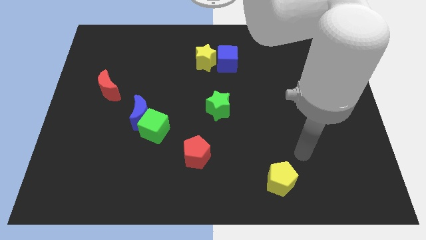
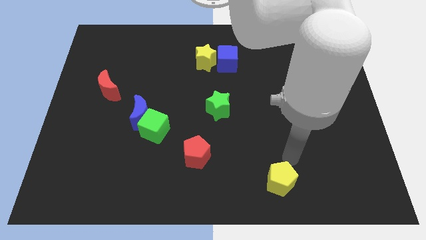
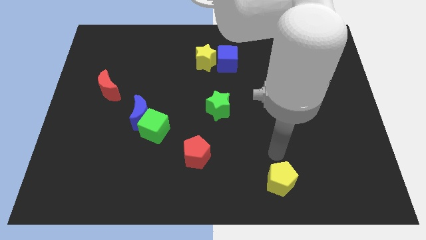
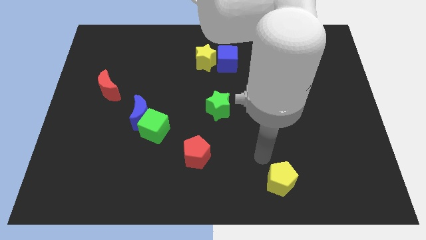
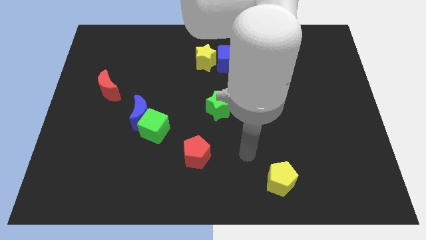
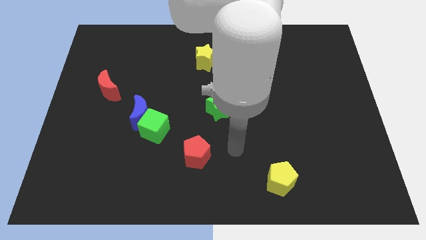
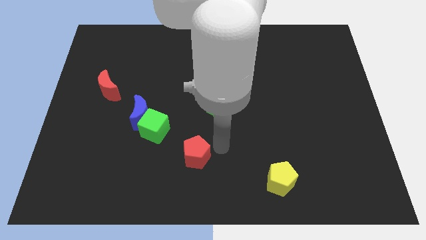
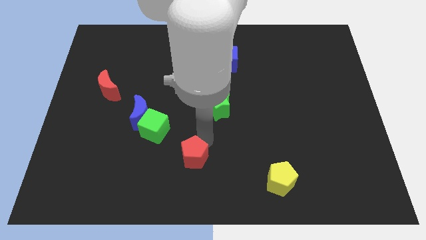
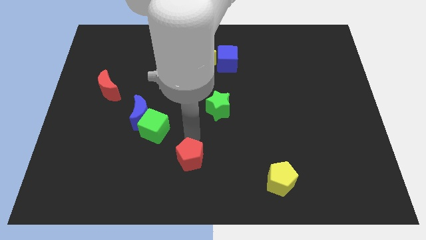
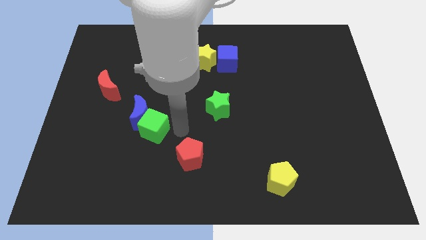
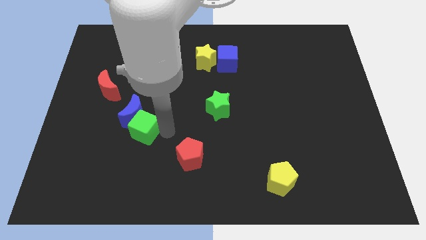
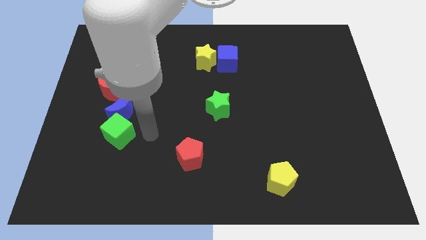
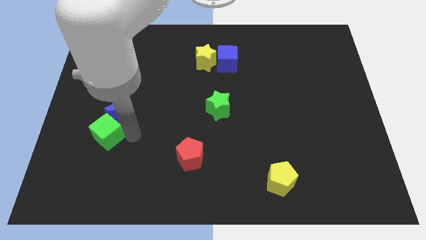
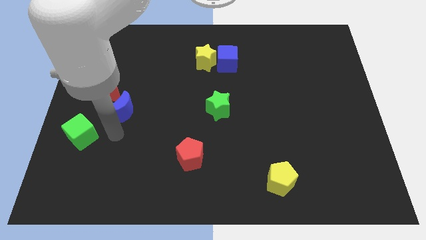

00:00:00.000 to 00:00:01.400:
move the blue moon away from the green cube

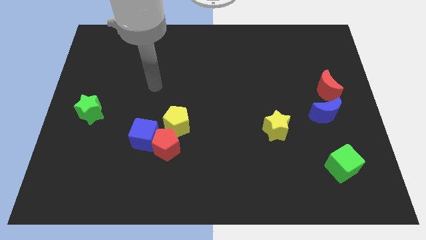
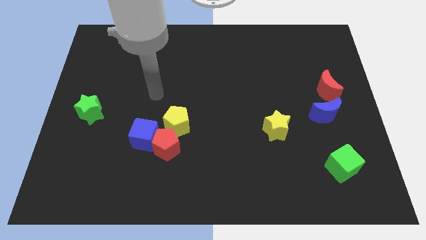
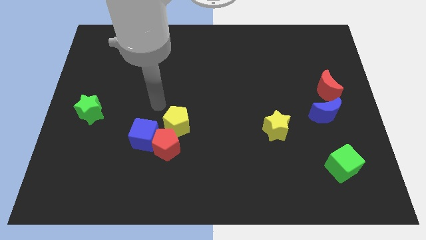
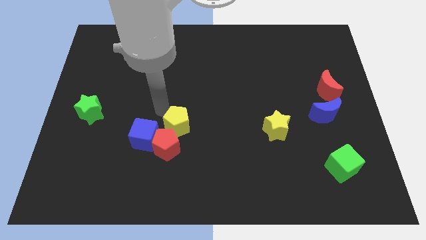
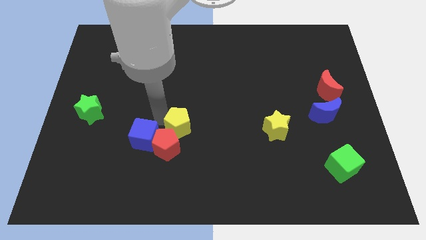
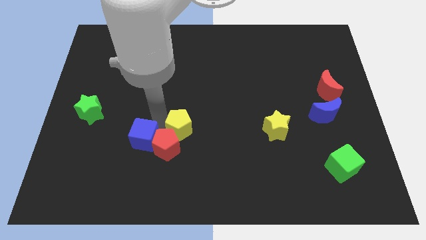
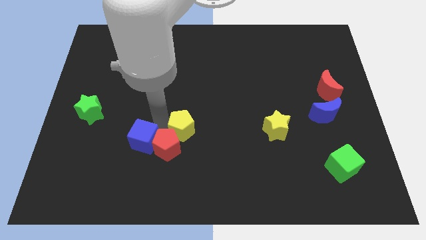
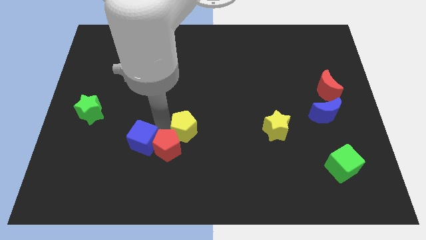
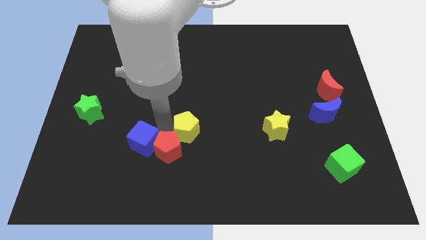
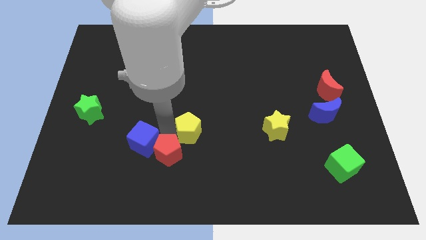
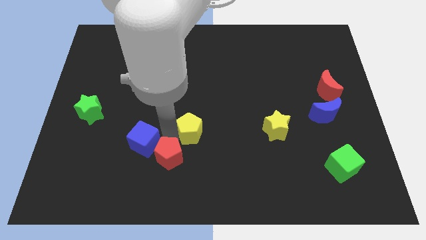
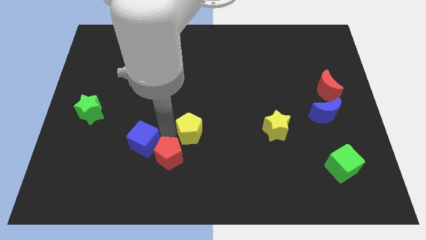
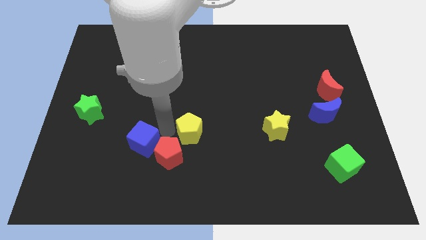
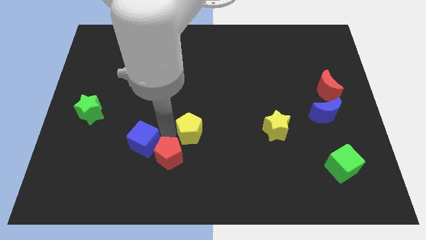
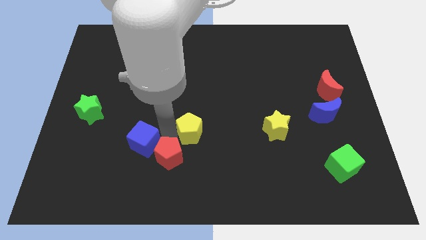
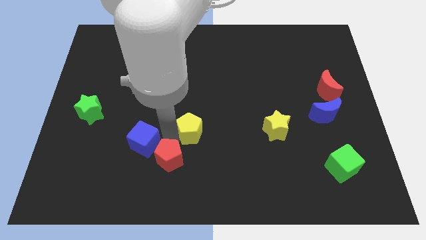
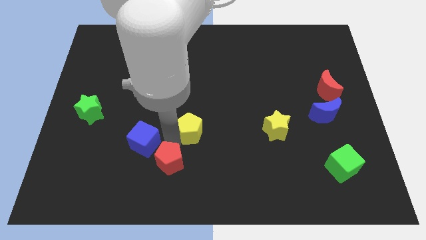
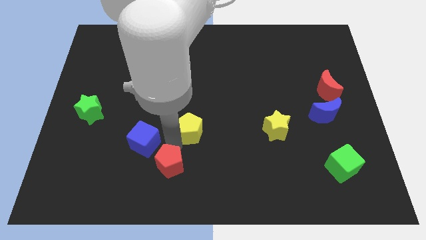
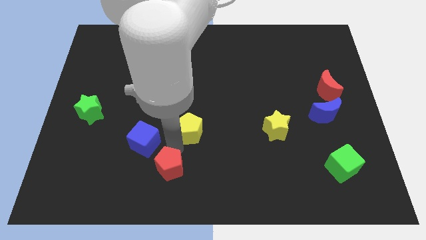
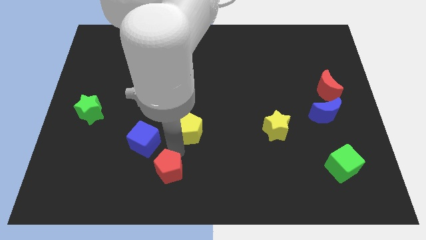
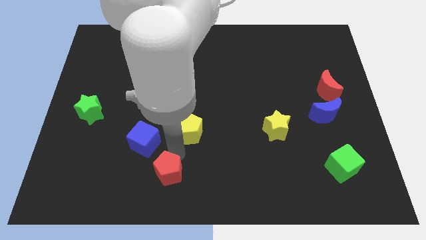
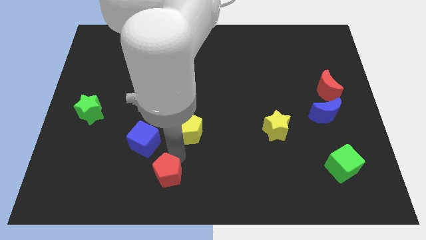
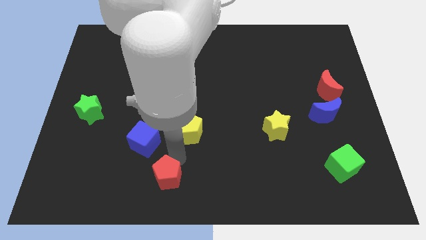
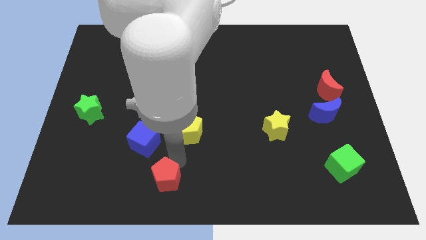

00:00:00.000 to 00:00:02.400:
separate the red pentagon from the blue cube and yellow pentagon

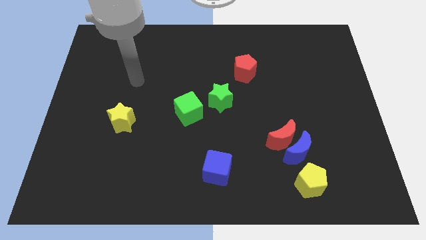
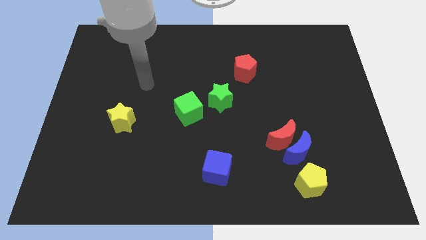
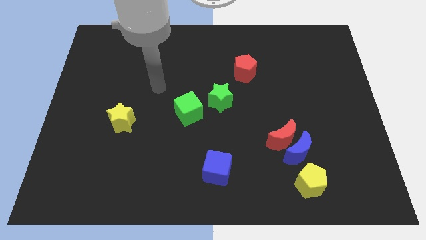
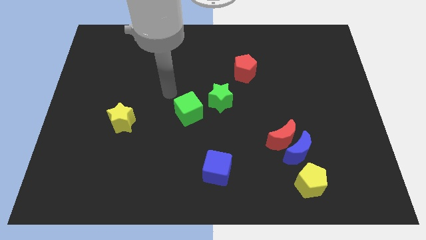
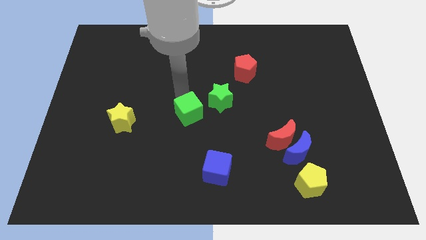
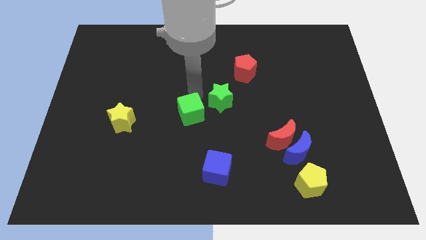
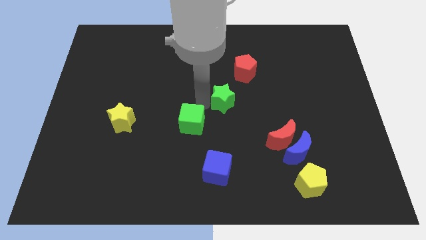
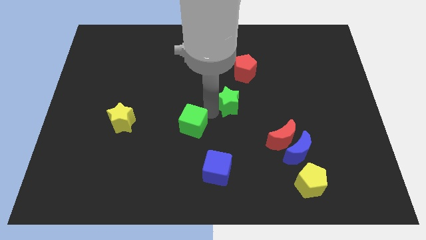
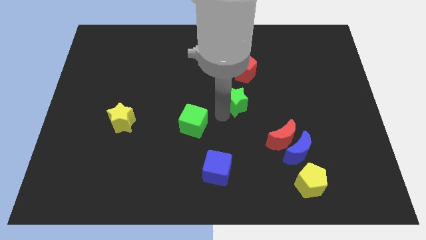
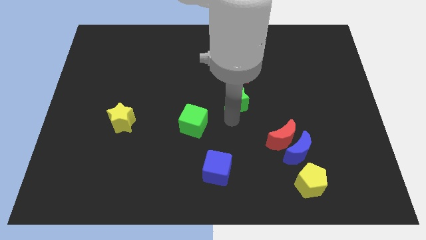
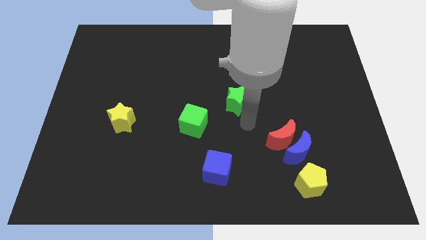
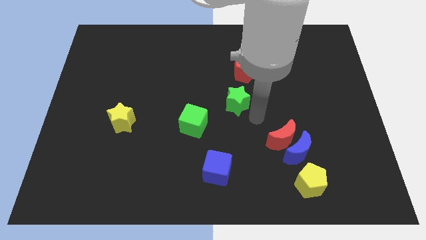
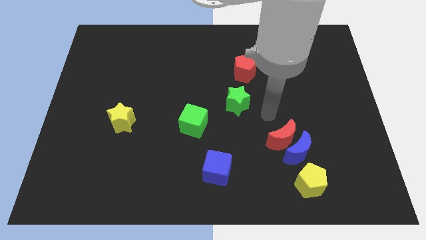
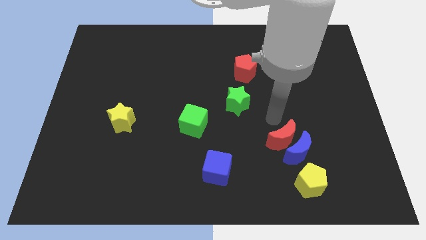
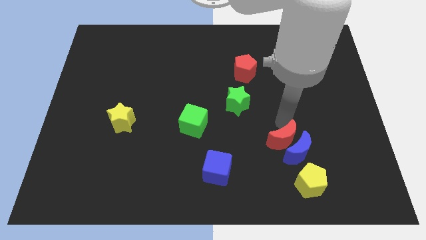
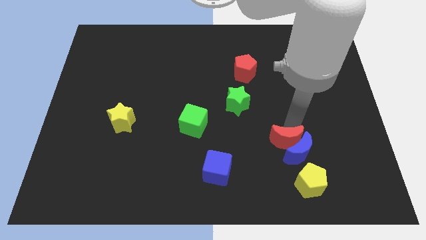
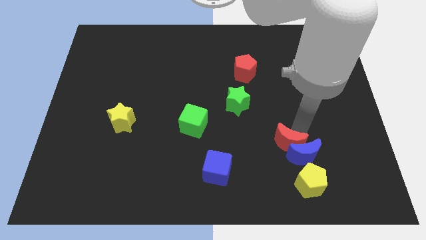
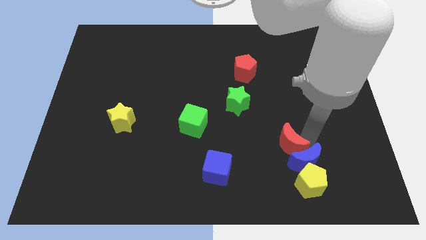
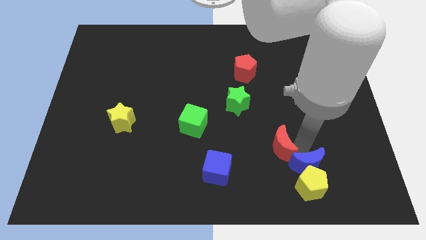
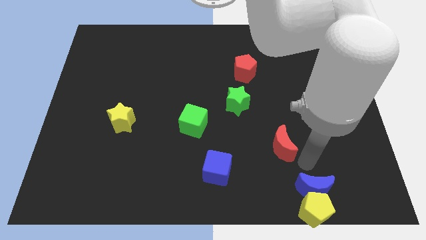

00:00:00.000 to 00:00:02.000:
separate the red moon from the blue moon

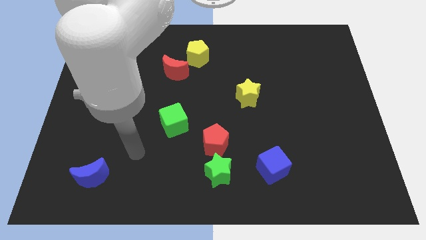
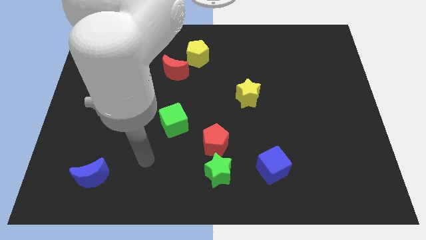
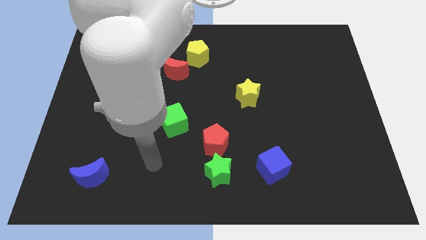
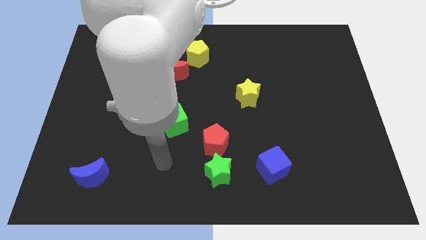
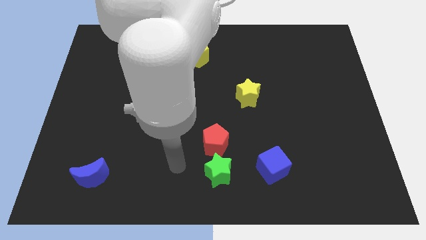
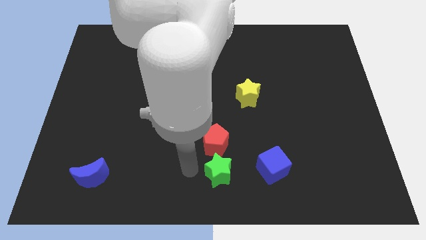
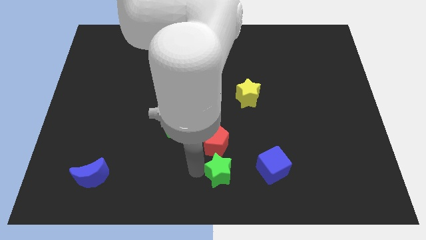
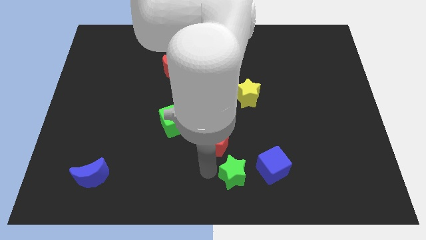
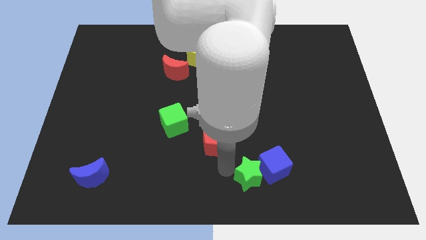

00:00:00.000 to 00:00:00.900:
move the red pentagon away from the green star

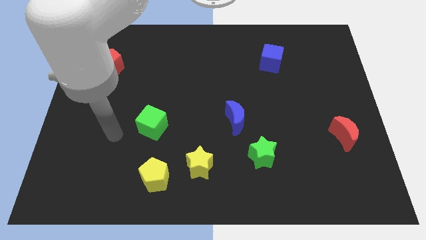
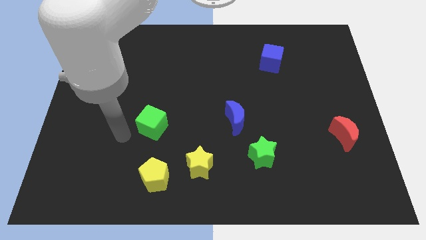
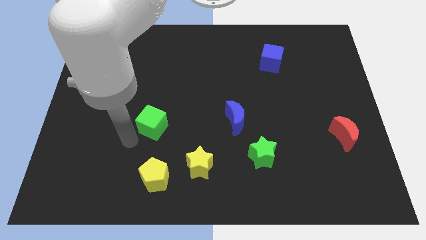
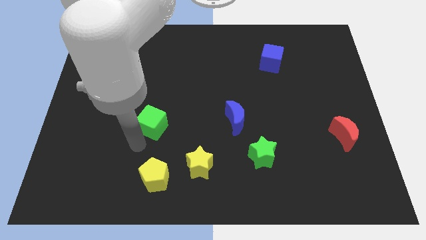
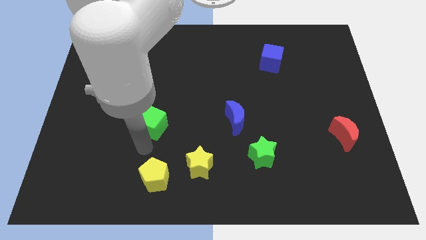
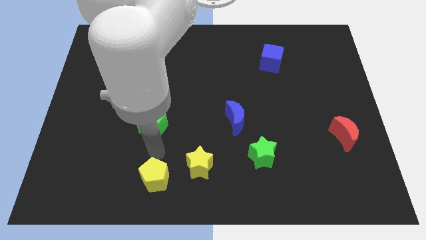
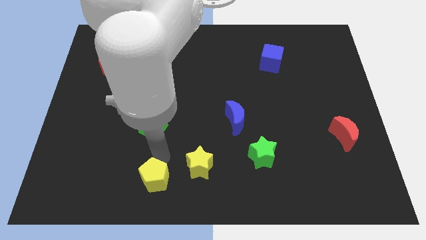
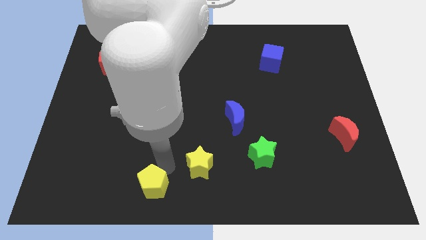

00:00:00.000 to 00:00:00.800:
move the yellow star away from the yellow pentagon

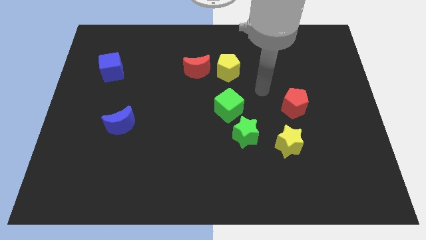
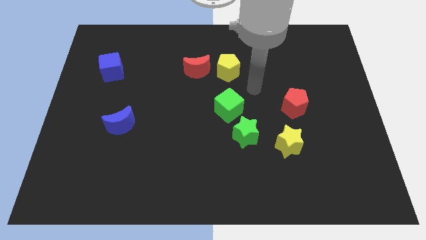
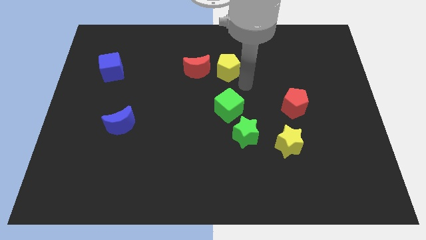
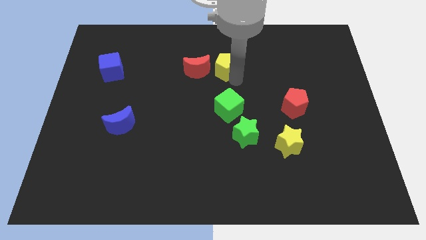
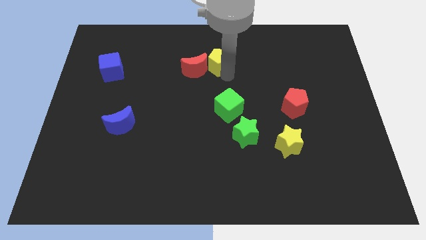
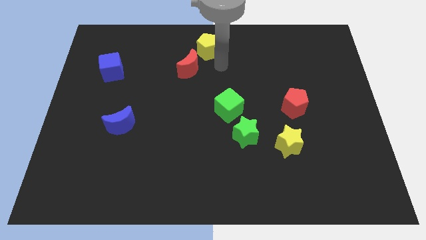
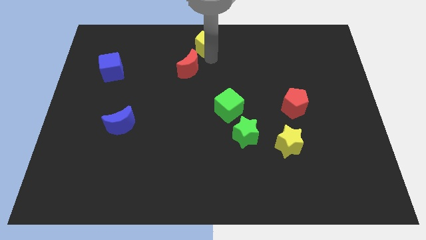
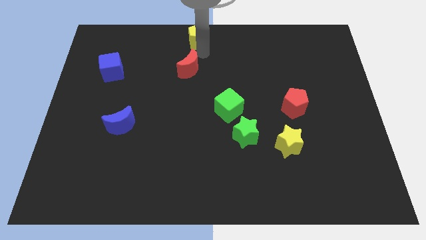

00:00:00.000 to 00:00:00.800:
move the red moon away from the yellow pentagon

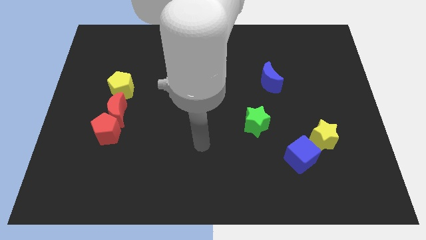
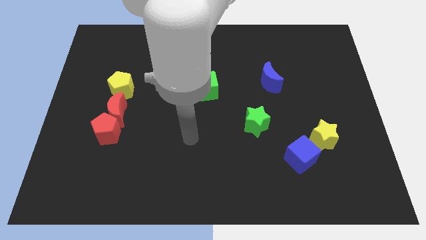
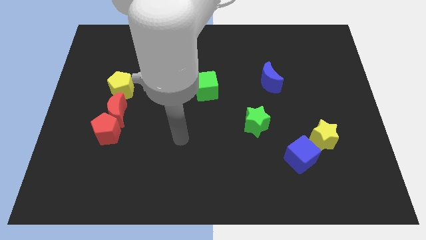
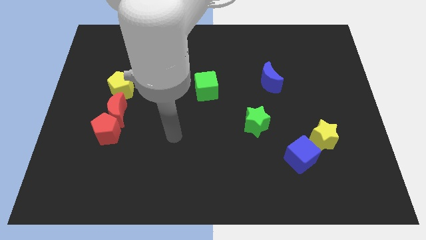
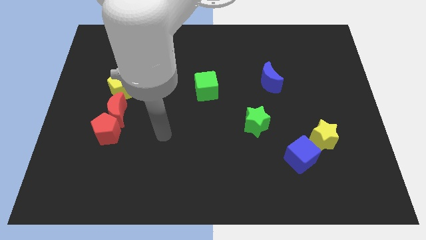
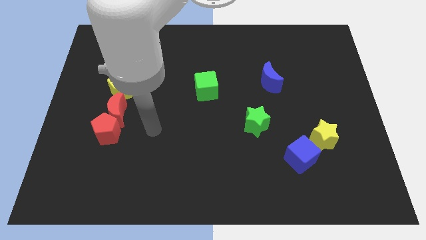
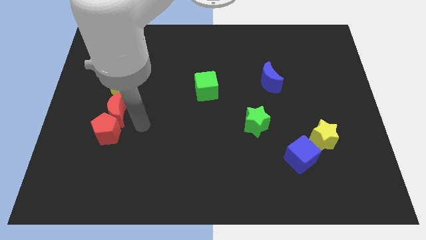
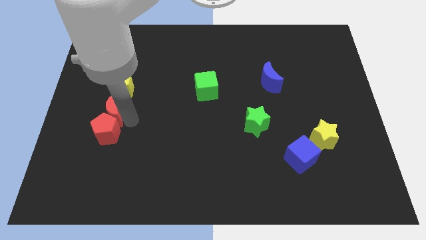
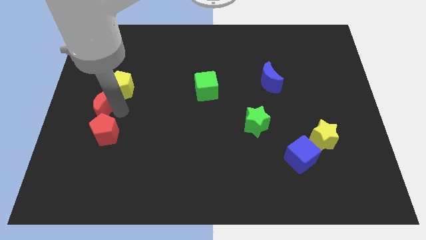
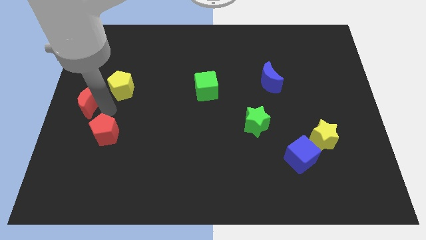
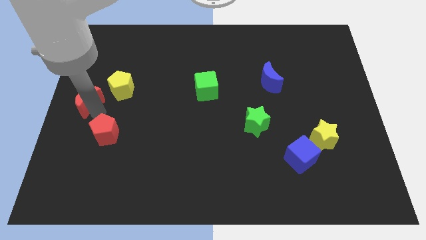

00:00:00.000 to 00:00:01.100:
move the red pentagon away from the red moon
